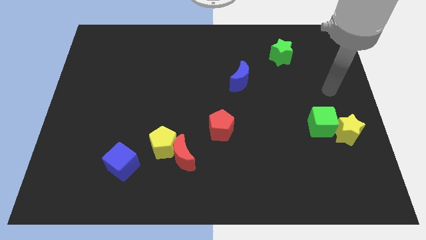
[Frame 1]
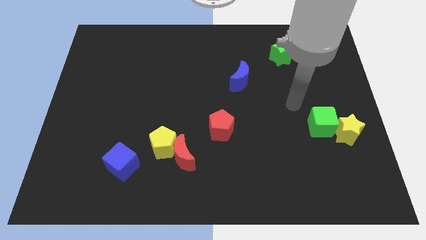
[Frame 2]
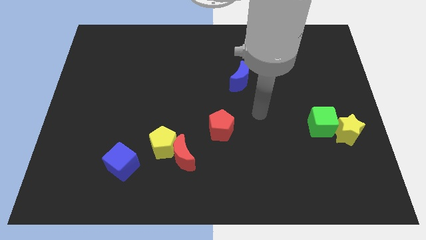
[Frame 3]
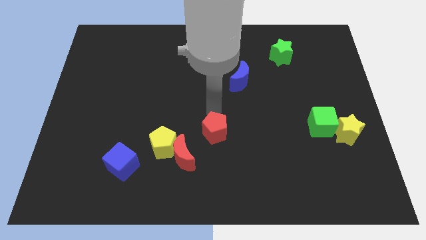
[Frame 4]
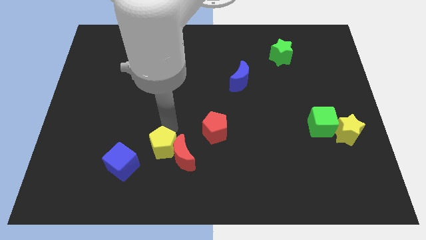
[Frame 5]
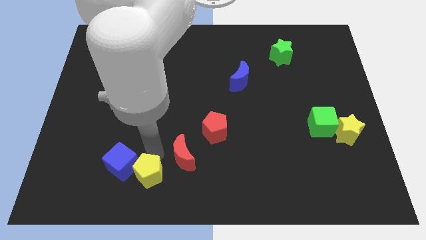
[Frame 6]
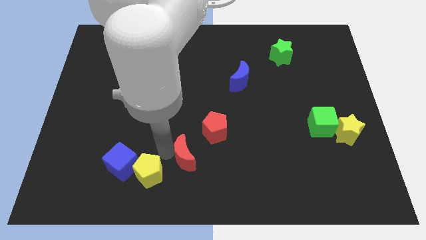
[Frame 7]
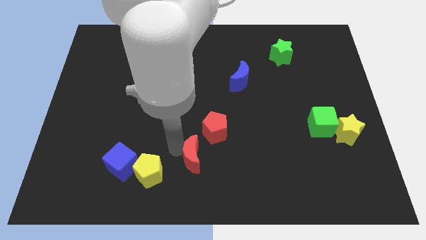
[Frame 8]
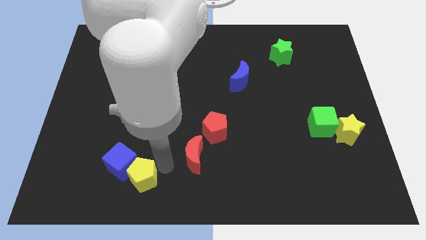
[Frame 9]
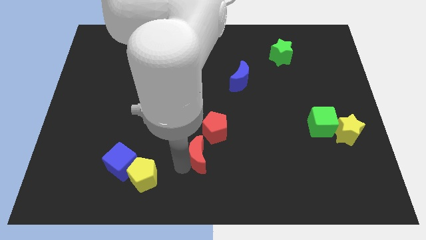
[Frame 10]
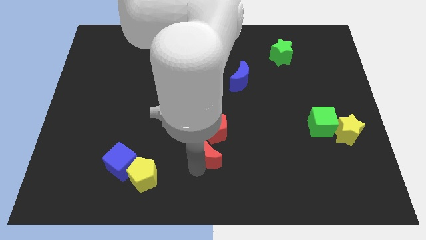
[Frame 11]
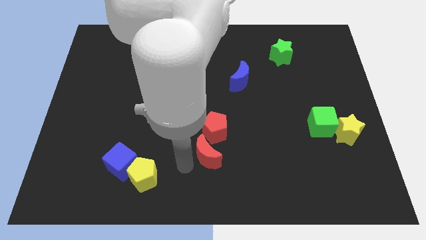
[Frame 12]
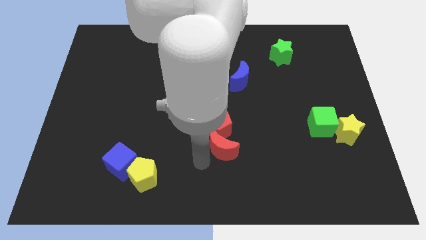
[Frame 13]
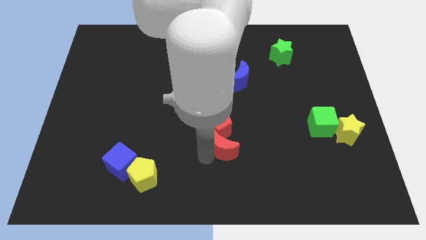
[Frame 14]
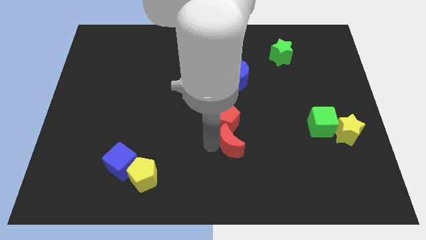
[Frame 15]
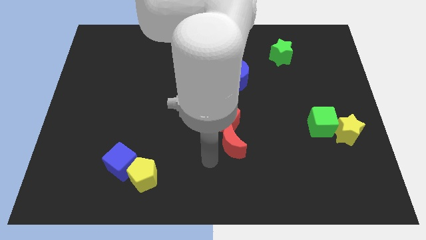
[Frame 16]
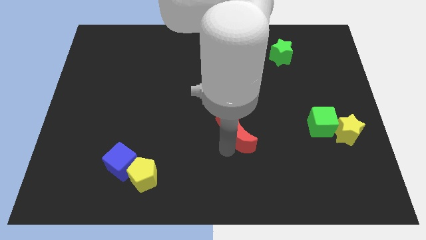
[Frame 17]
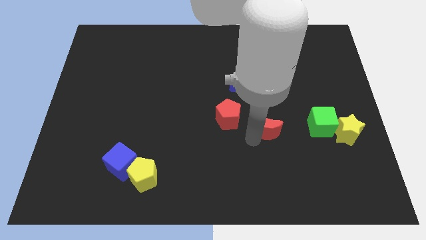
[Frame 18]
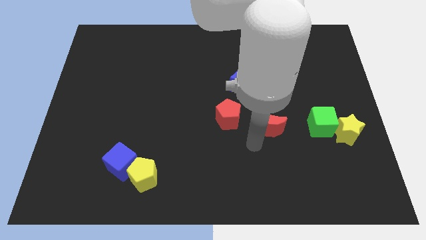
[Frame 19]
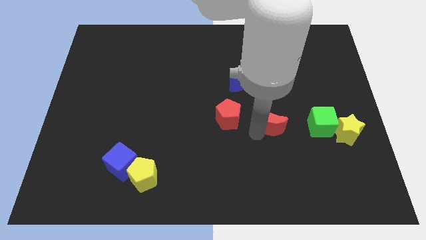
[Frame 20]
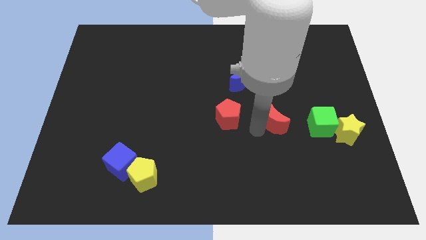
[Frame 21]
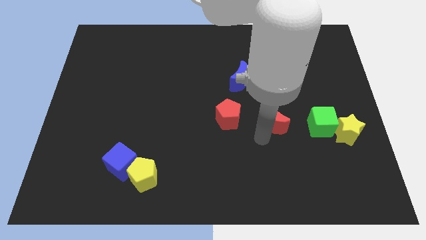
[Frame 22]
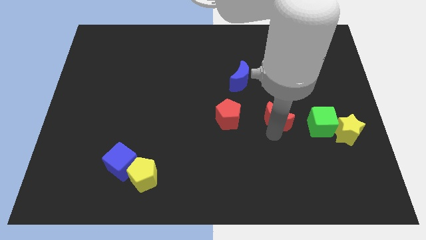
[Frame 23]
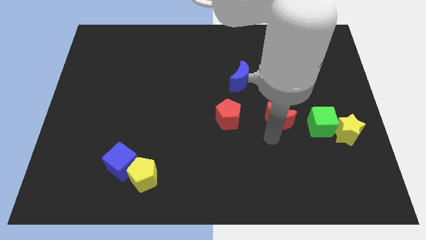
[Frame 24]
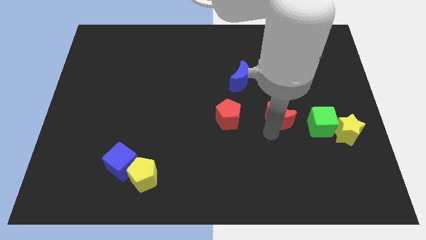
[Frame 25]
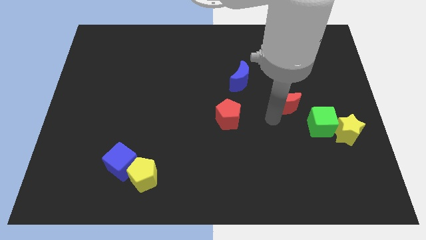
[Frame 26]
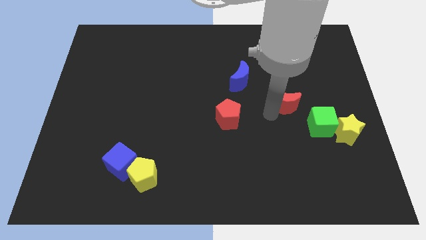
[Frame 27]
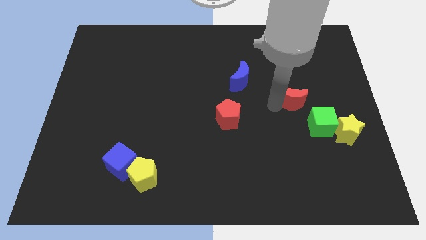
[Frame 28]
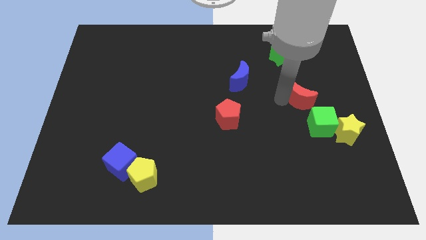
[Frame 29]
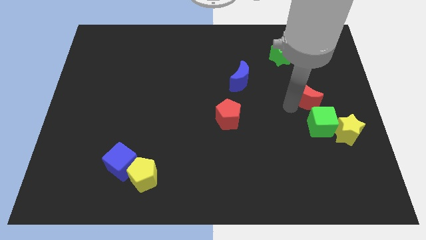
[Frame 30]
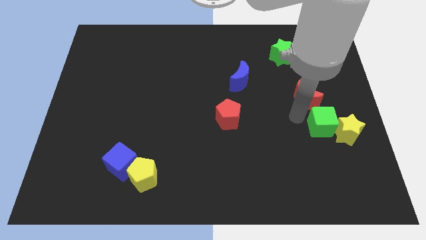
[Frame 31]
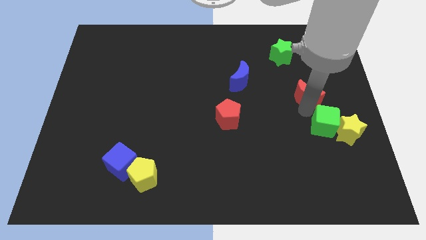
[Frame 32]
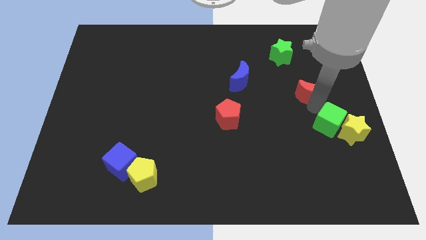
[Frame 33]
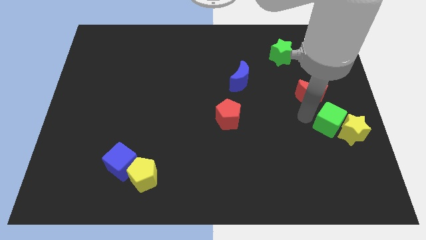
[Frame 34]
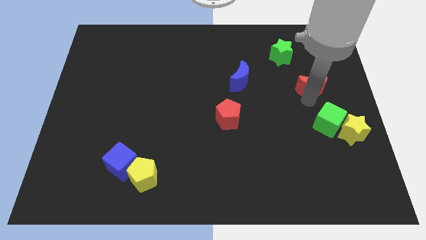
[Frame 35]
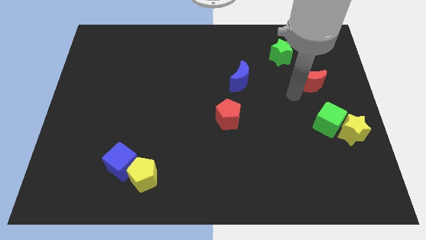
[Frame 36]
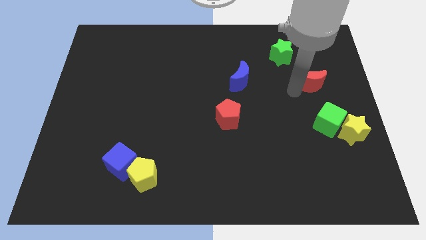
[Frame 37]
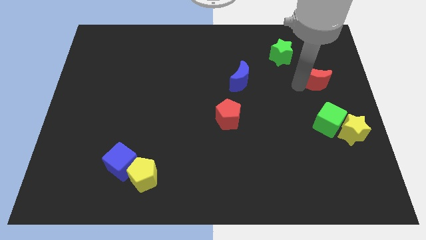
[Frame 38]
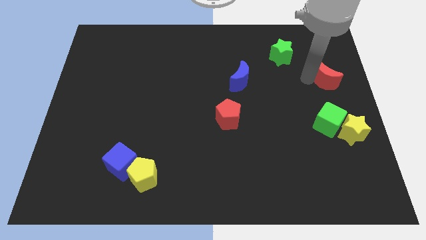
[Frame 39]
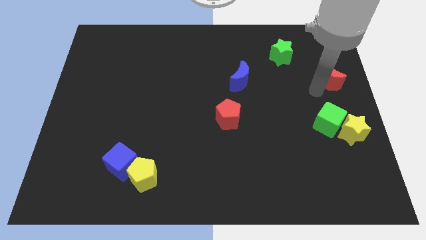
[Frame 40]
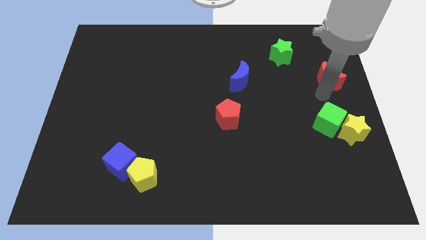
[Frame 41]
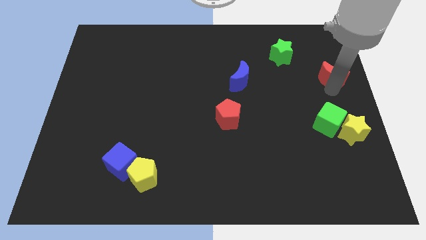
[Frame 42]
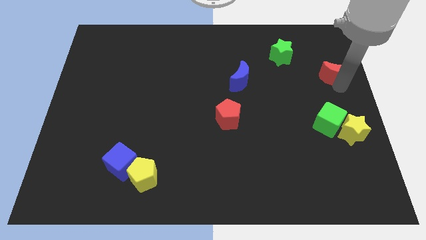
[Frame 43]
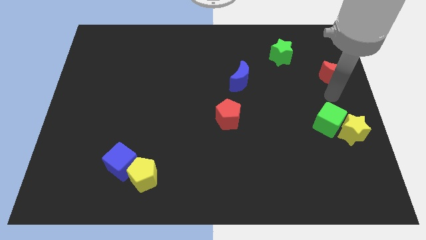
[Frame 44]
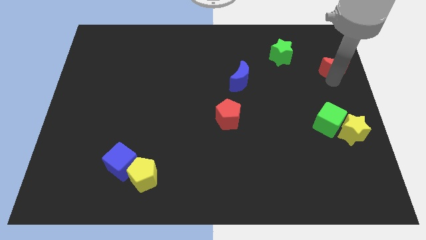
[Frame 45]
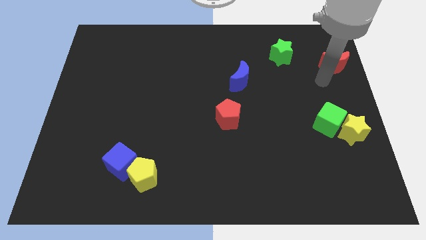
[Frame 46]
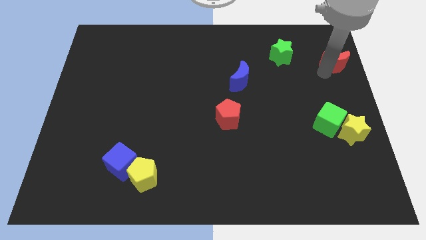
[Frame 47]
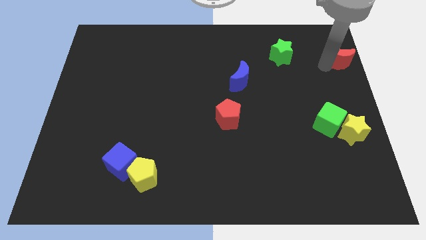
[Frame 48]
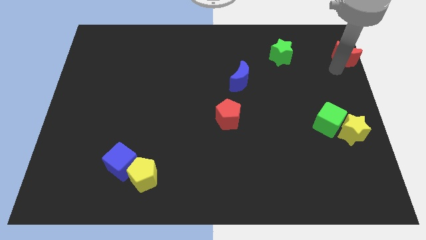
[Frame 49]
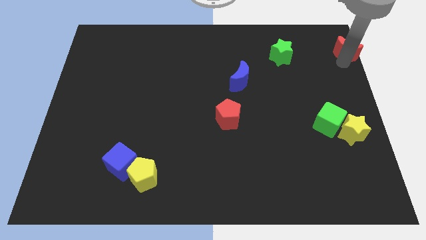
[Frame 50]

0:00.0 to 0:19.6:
slide the red moon to the upper right corner
